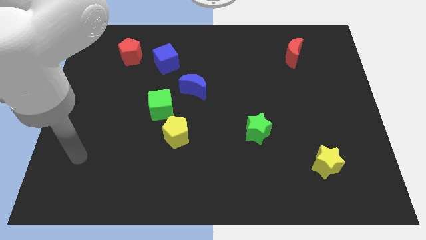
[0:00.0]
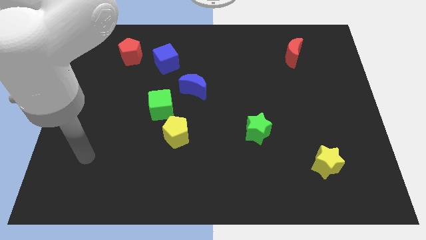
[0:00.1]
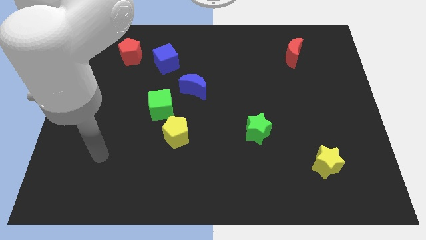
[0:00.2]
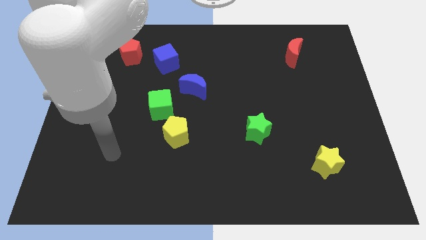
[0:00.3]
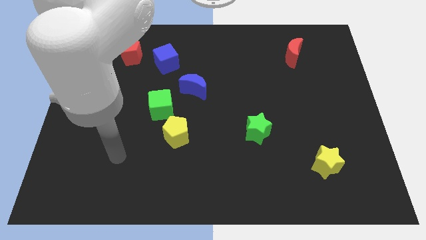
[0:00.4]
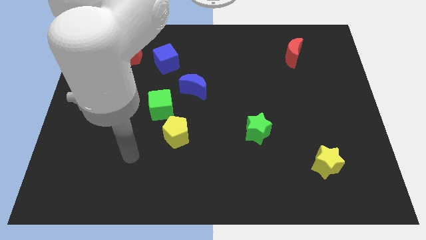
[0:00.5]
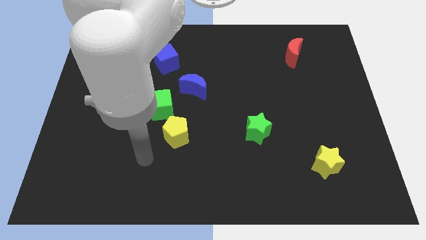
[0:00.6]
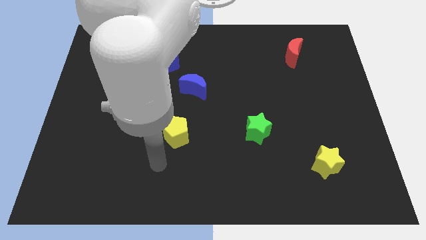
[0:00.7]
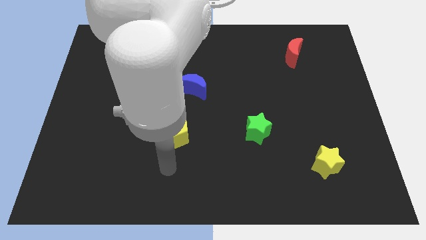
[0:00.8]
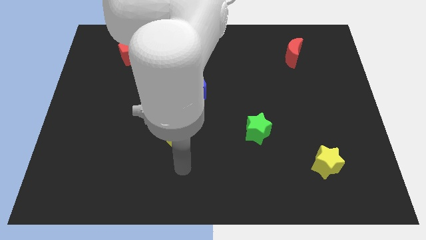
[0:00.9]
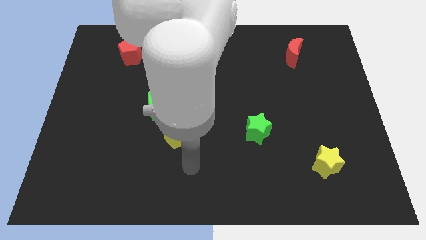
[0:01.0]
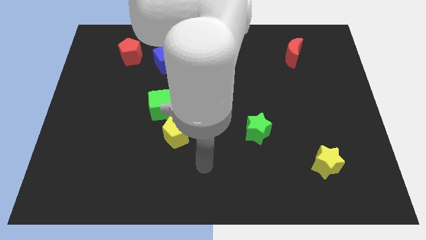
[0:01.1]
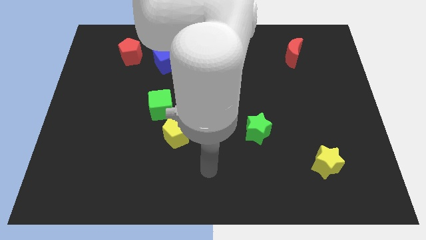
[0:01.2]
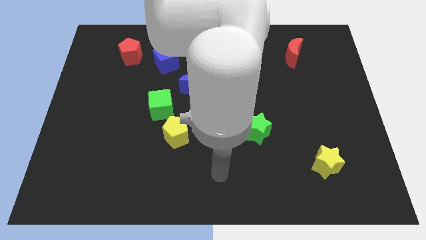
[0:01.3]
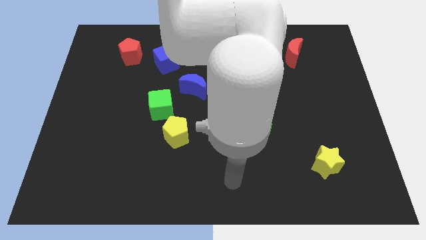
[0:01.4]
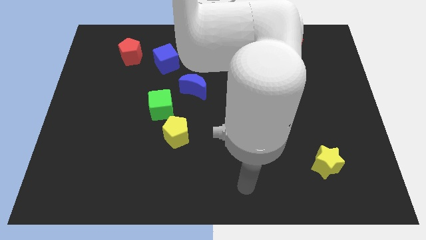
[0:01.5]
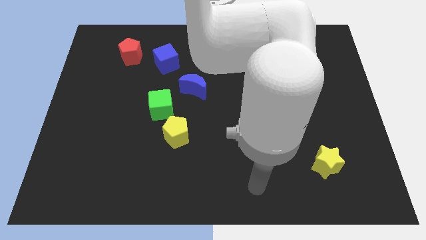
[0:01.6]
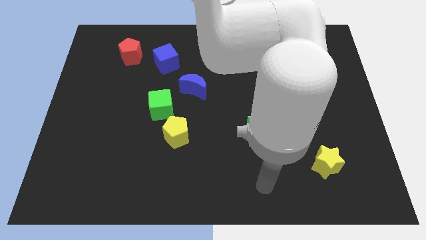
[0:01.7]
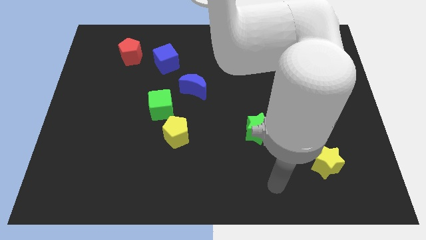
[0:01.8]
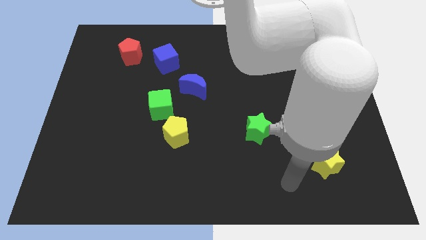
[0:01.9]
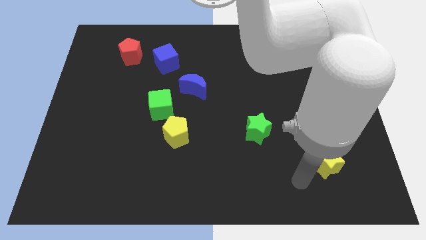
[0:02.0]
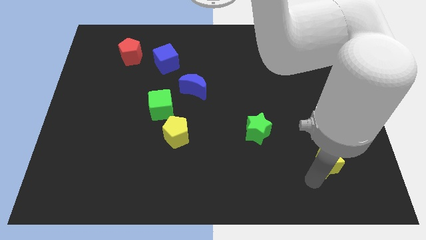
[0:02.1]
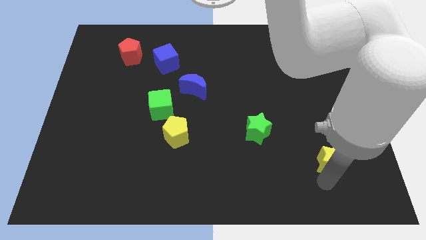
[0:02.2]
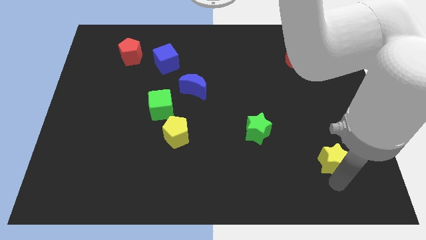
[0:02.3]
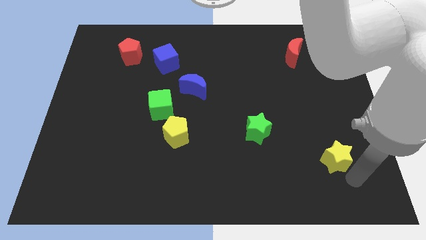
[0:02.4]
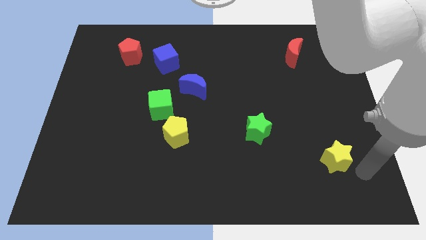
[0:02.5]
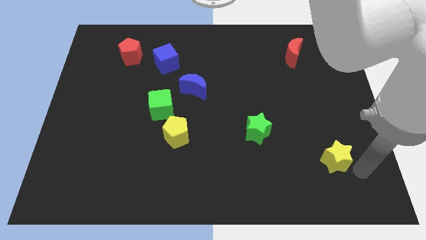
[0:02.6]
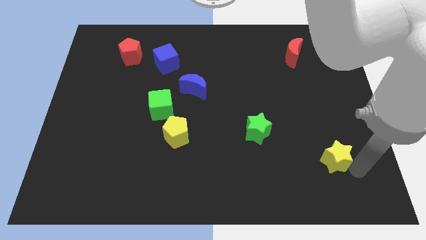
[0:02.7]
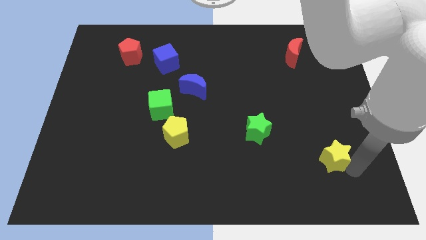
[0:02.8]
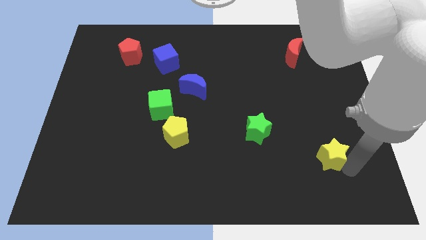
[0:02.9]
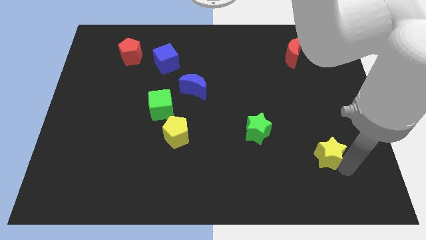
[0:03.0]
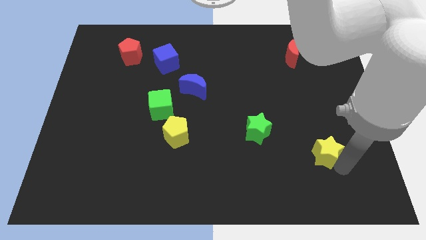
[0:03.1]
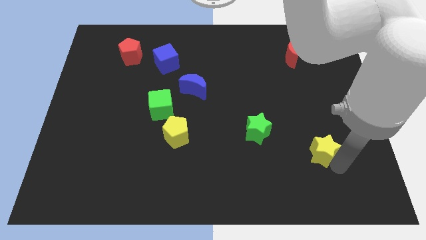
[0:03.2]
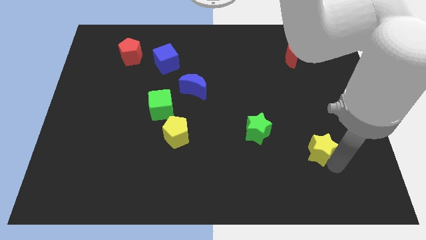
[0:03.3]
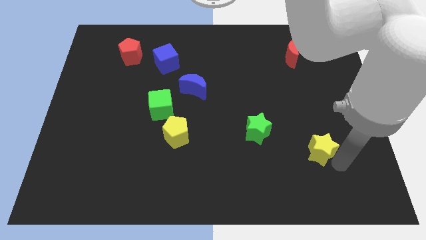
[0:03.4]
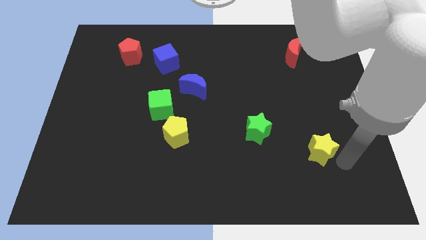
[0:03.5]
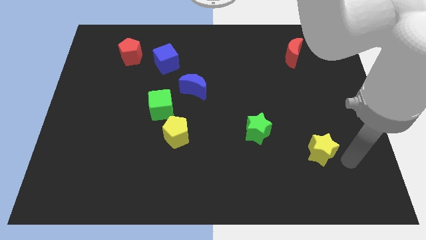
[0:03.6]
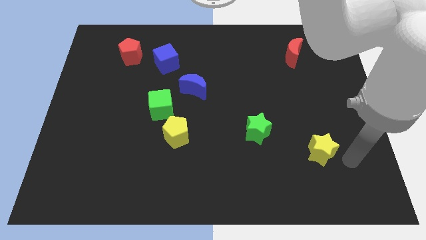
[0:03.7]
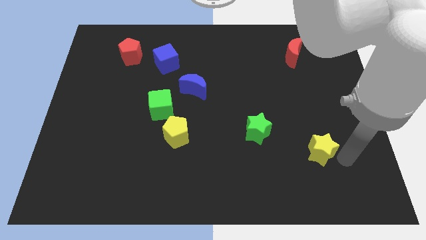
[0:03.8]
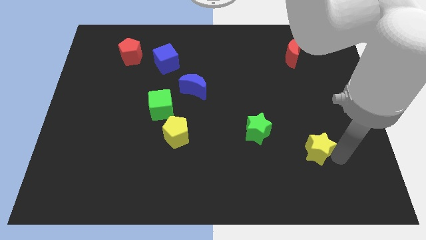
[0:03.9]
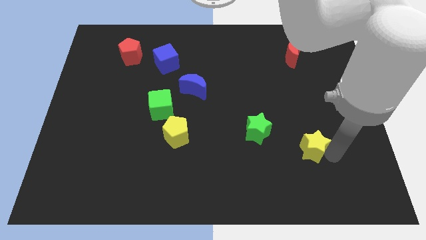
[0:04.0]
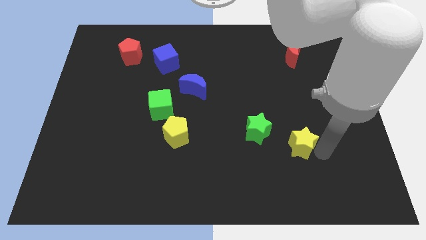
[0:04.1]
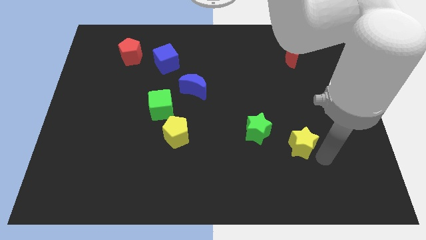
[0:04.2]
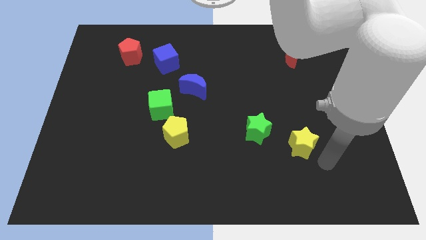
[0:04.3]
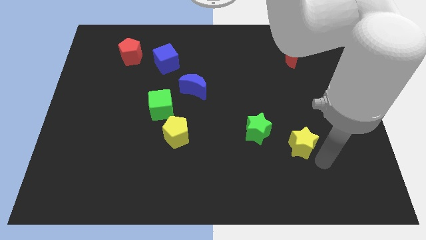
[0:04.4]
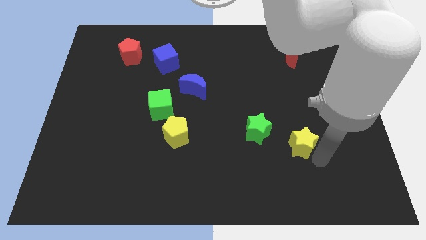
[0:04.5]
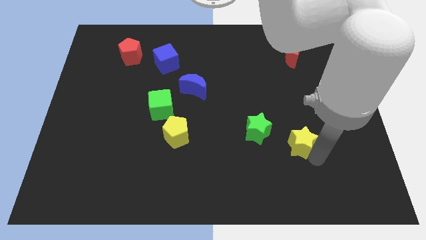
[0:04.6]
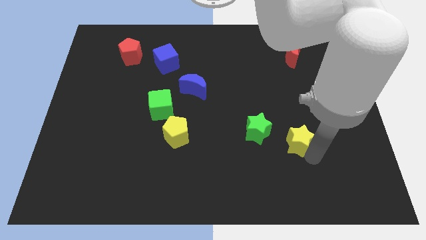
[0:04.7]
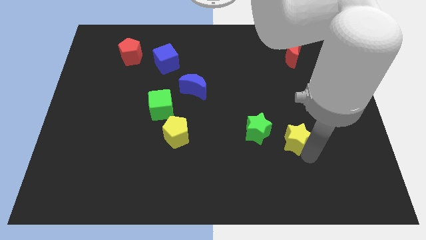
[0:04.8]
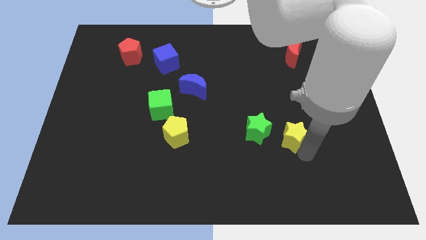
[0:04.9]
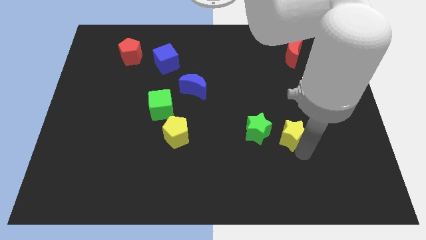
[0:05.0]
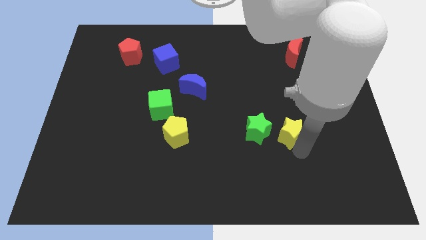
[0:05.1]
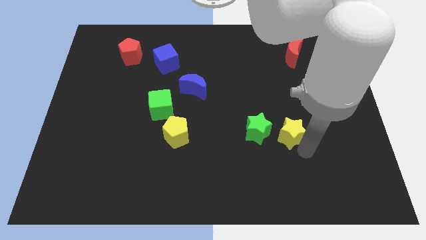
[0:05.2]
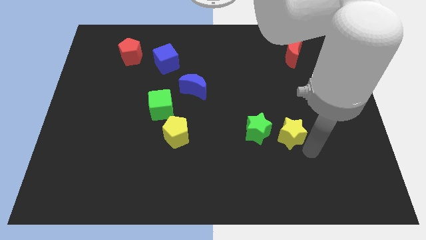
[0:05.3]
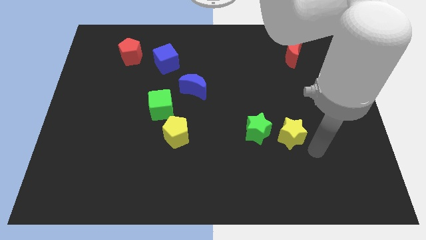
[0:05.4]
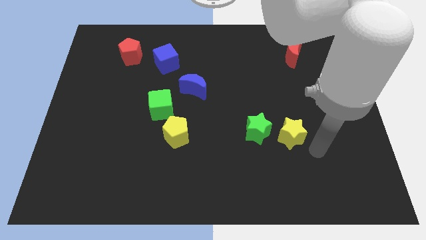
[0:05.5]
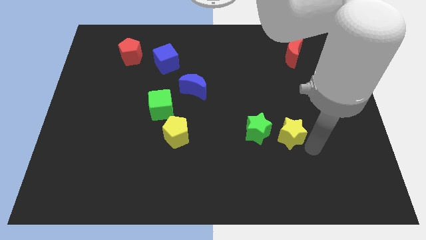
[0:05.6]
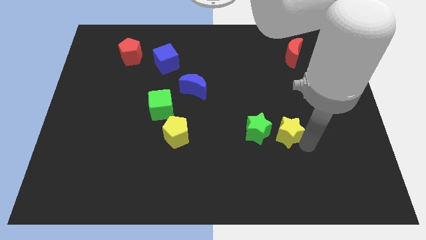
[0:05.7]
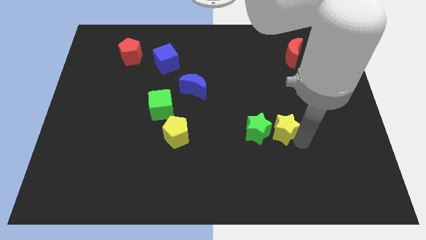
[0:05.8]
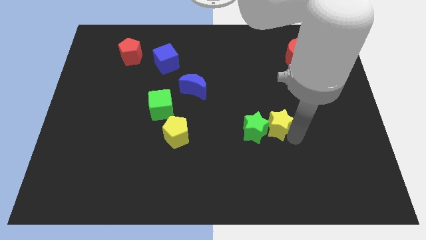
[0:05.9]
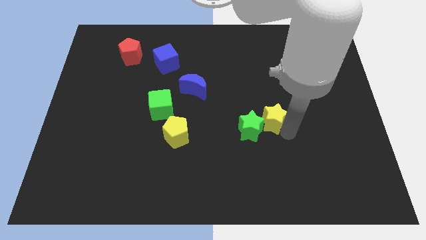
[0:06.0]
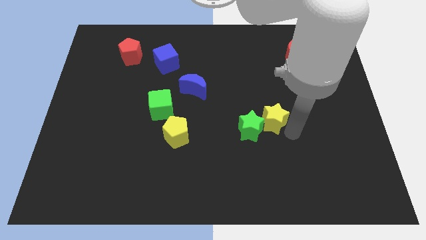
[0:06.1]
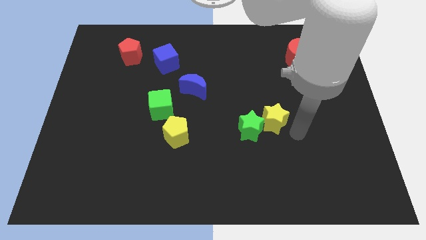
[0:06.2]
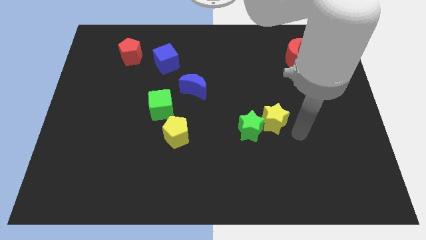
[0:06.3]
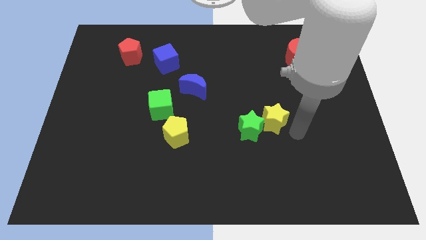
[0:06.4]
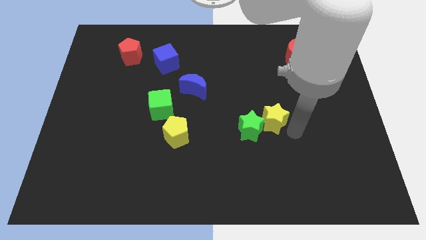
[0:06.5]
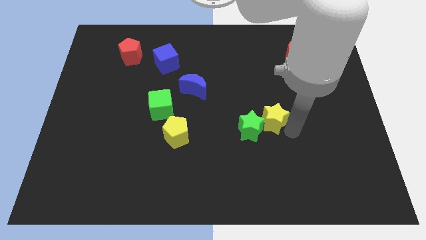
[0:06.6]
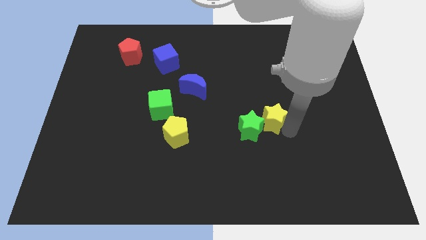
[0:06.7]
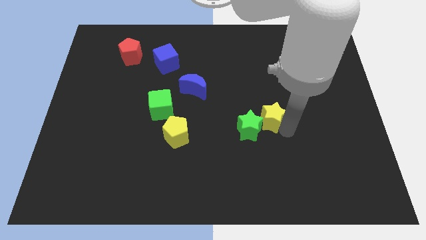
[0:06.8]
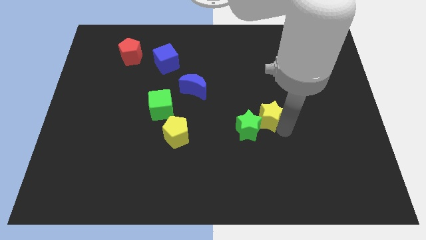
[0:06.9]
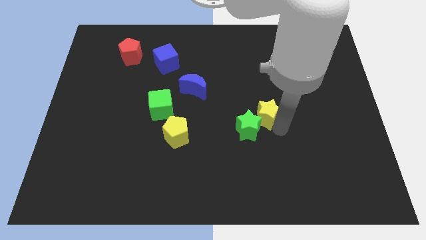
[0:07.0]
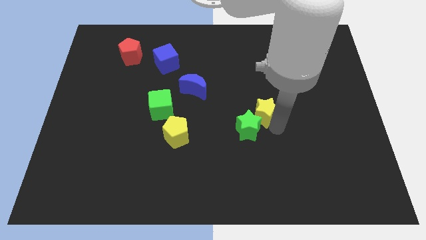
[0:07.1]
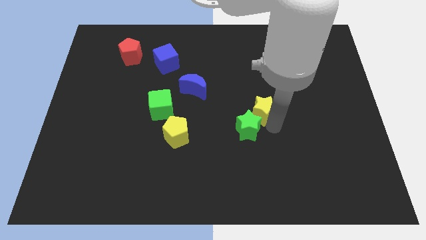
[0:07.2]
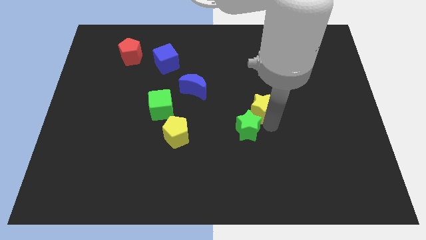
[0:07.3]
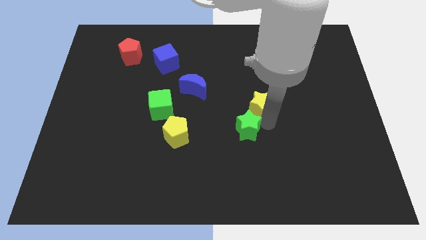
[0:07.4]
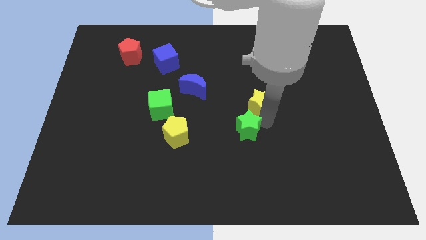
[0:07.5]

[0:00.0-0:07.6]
push the yellow star up and left

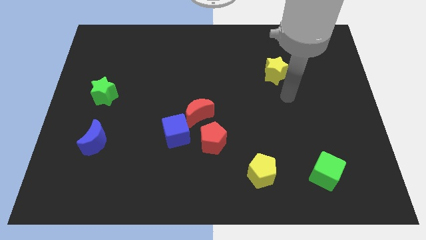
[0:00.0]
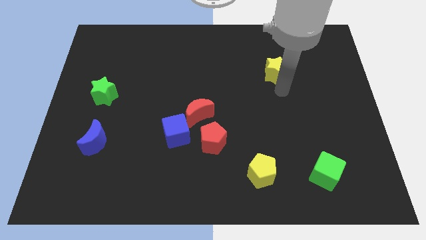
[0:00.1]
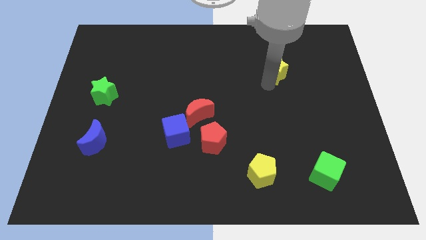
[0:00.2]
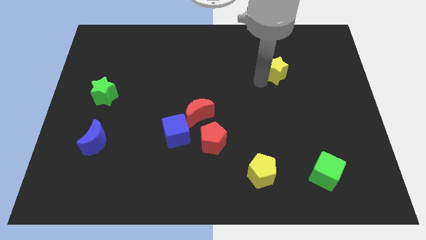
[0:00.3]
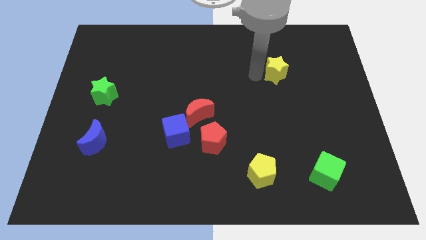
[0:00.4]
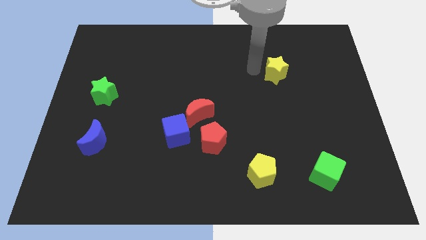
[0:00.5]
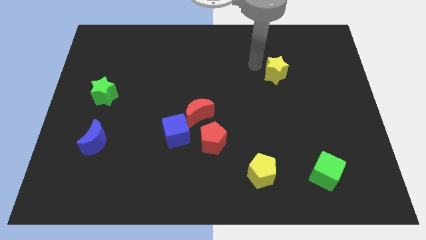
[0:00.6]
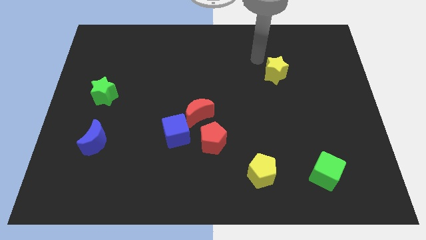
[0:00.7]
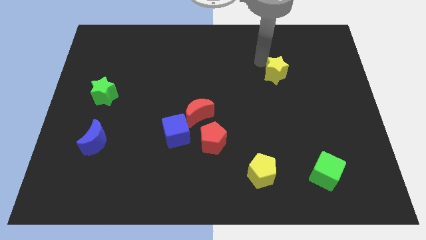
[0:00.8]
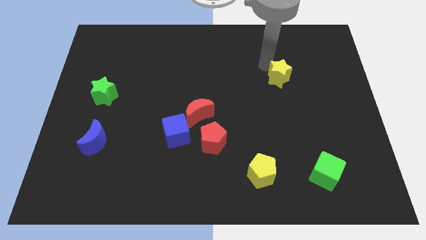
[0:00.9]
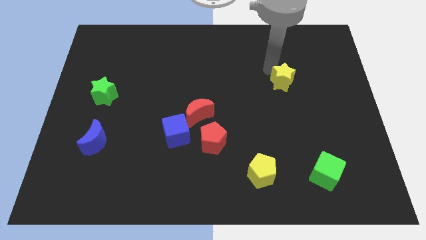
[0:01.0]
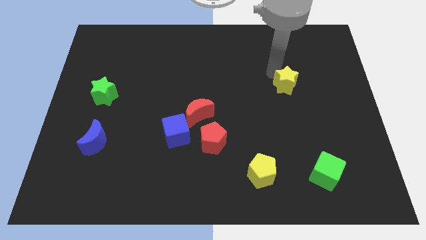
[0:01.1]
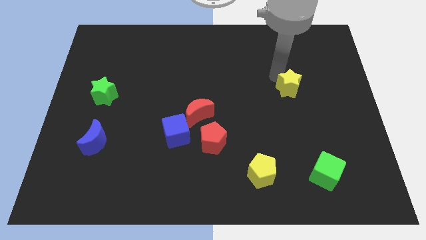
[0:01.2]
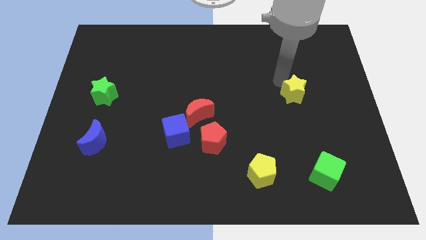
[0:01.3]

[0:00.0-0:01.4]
slightly push the yellow star downwards and then to the right
